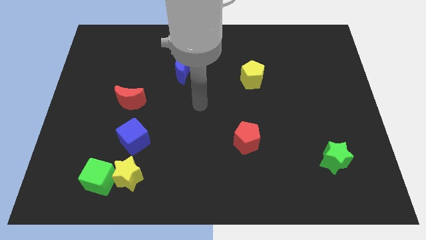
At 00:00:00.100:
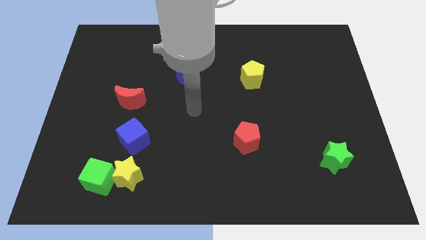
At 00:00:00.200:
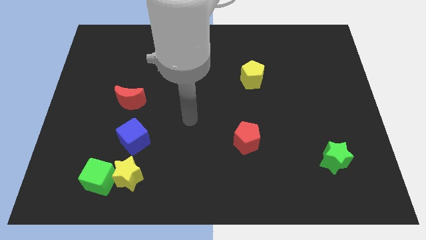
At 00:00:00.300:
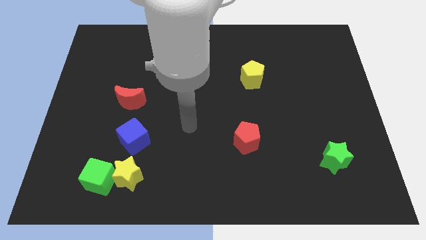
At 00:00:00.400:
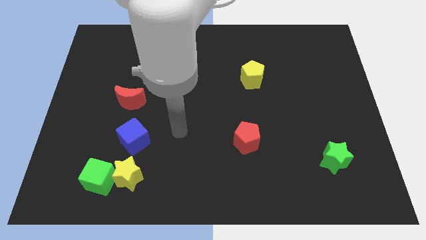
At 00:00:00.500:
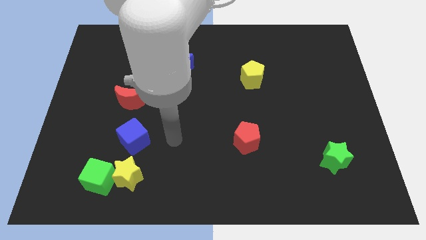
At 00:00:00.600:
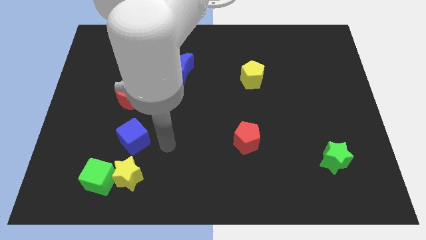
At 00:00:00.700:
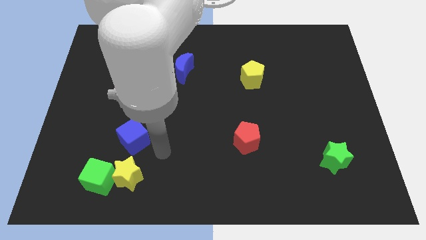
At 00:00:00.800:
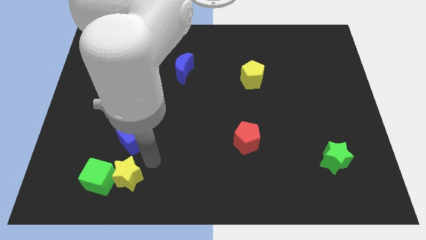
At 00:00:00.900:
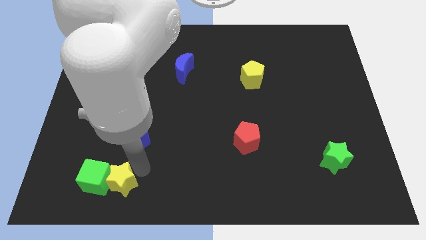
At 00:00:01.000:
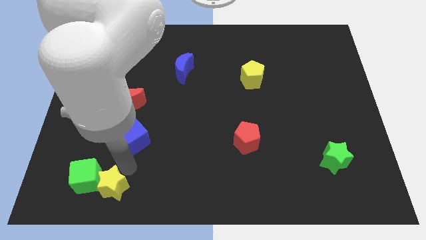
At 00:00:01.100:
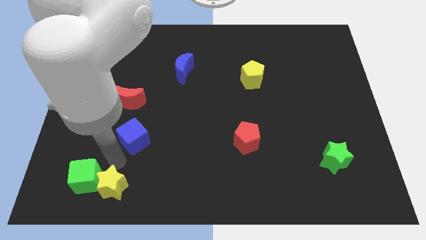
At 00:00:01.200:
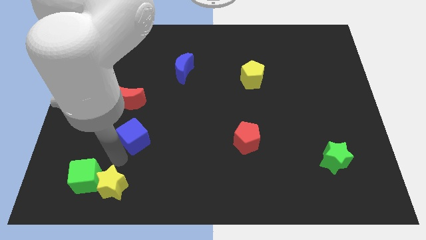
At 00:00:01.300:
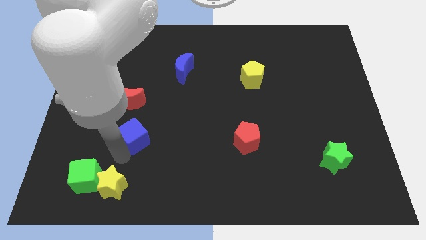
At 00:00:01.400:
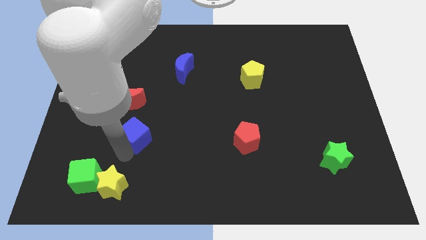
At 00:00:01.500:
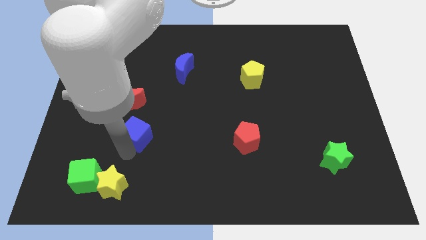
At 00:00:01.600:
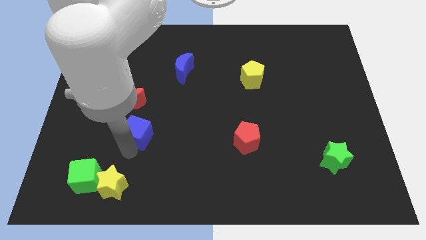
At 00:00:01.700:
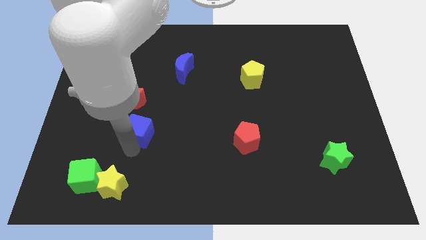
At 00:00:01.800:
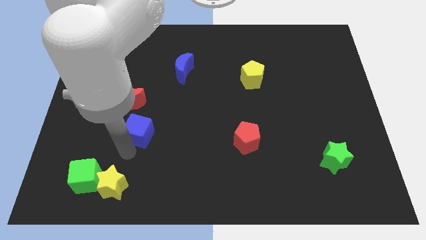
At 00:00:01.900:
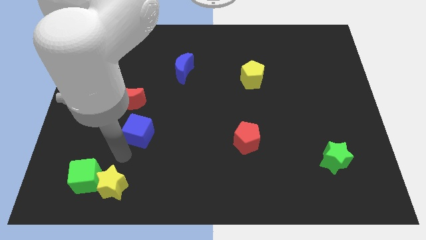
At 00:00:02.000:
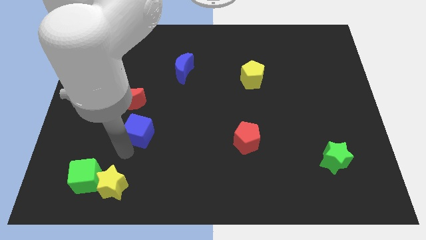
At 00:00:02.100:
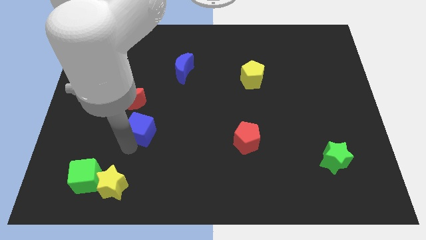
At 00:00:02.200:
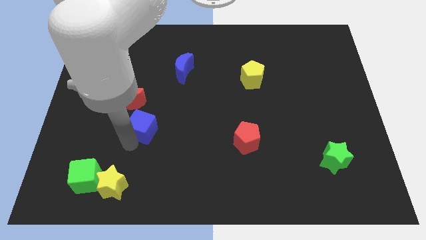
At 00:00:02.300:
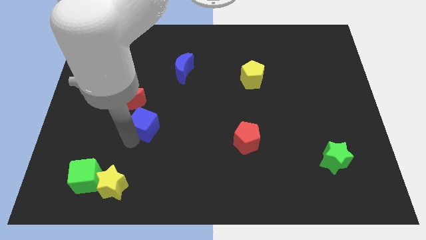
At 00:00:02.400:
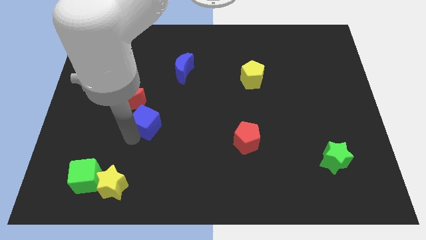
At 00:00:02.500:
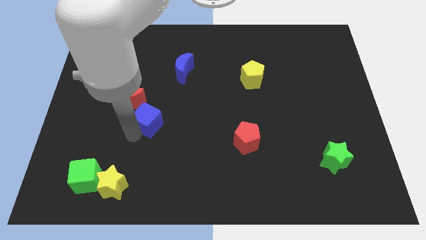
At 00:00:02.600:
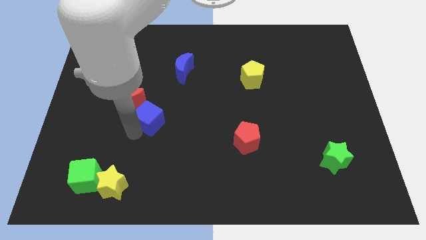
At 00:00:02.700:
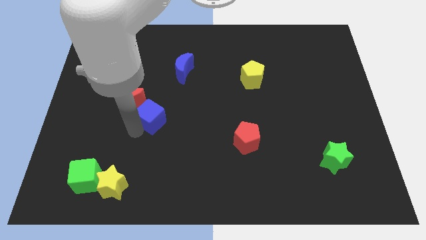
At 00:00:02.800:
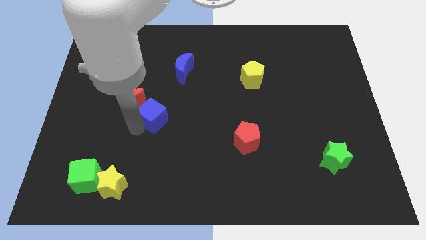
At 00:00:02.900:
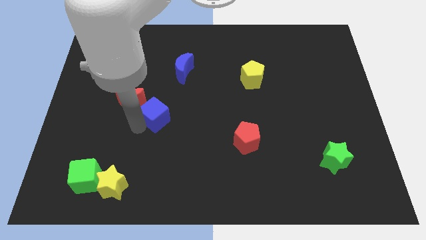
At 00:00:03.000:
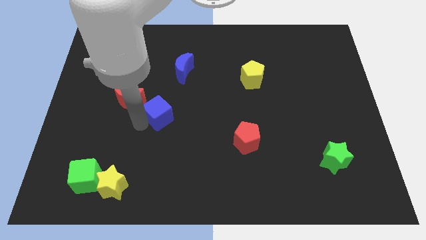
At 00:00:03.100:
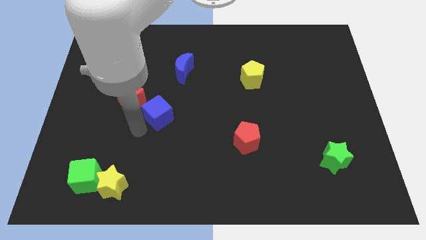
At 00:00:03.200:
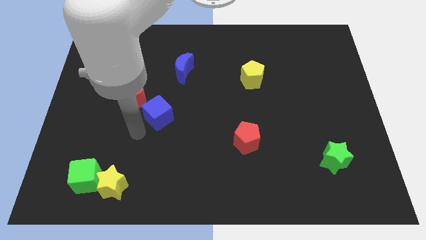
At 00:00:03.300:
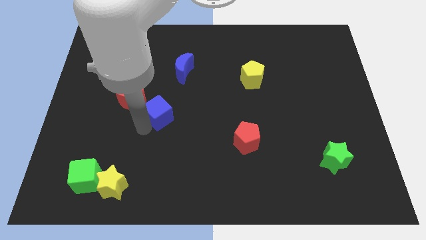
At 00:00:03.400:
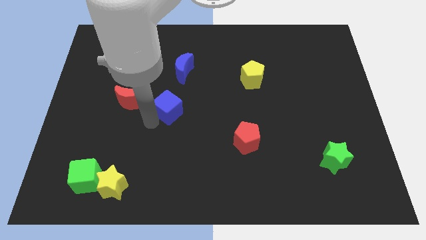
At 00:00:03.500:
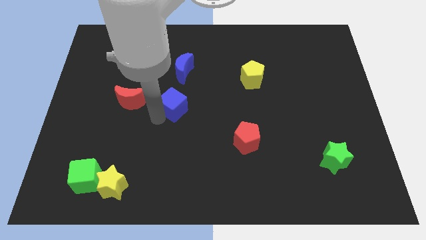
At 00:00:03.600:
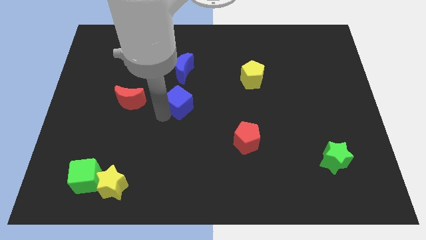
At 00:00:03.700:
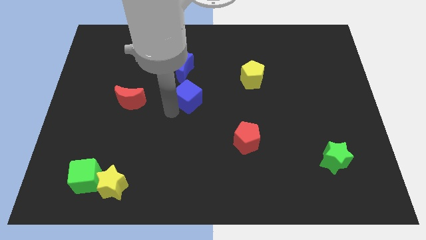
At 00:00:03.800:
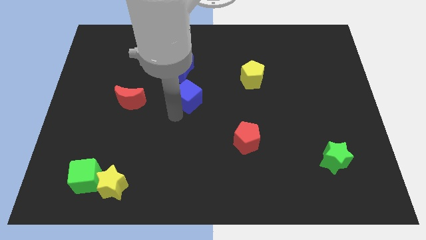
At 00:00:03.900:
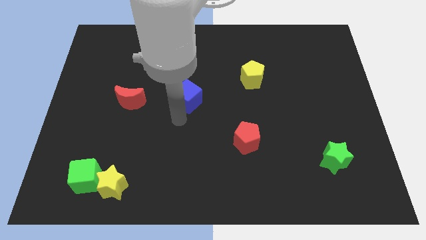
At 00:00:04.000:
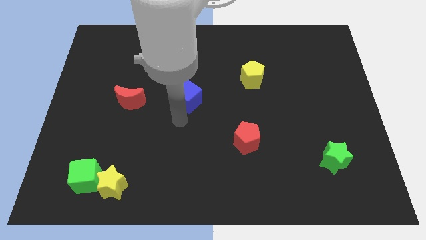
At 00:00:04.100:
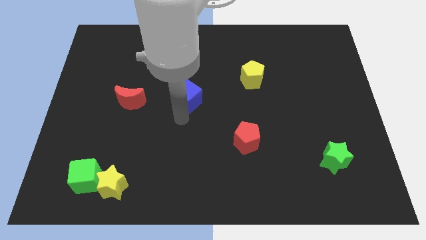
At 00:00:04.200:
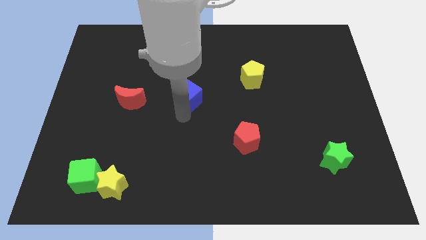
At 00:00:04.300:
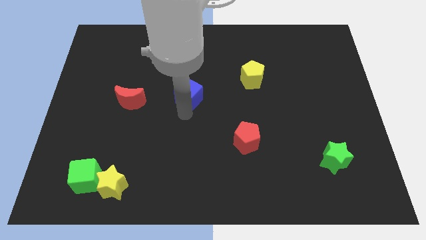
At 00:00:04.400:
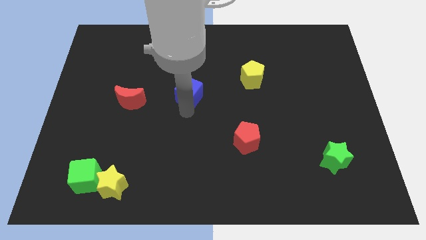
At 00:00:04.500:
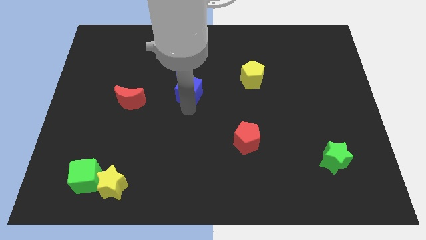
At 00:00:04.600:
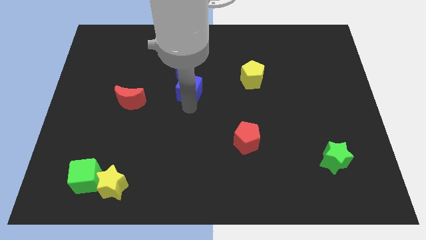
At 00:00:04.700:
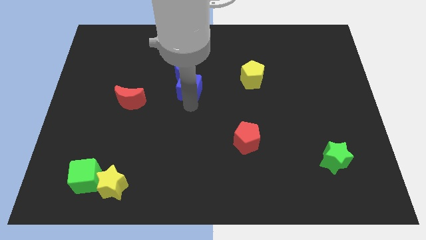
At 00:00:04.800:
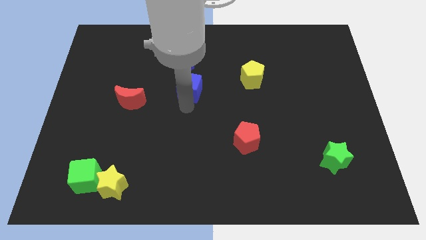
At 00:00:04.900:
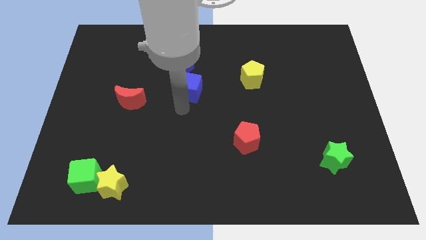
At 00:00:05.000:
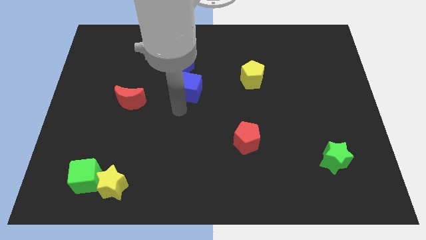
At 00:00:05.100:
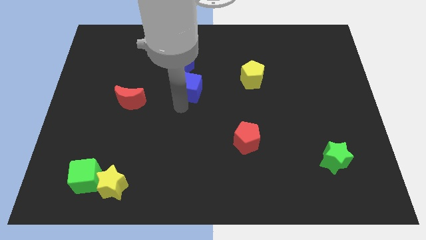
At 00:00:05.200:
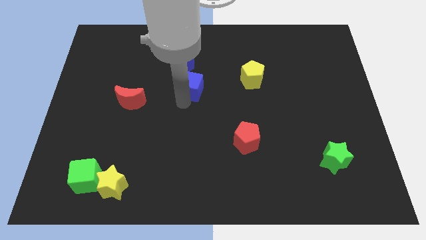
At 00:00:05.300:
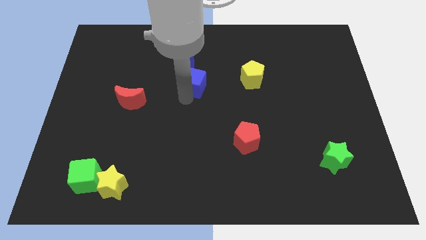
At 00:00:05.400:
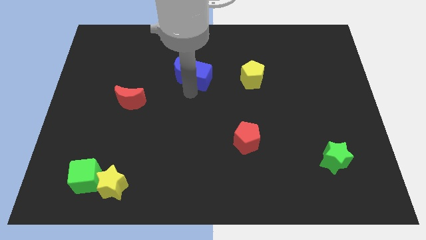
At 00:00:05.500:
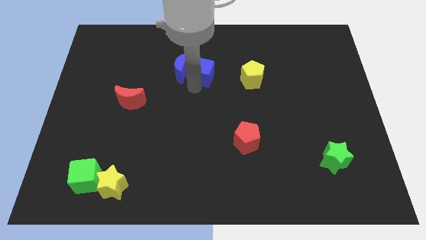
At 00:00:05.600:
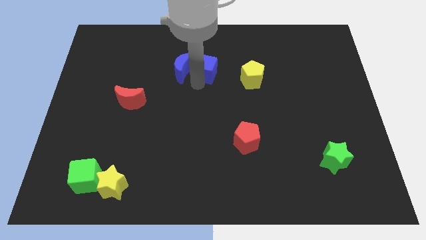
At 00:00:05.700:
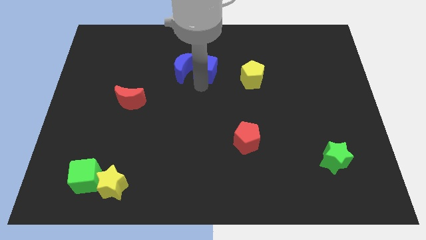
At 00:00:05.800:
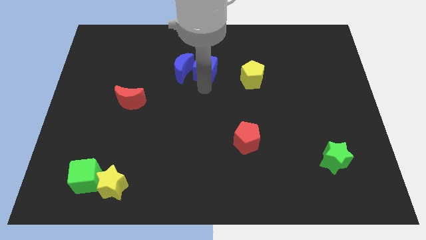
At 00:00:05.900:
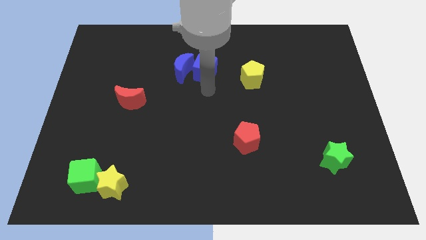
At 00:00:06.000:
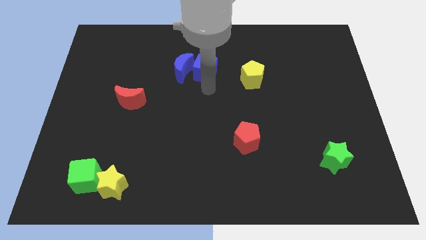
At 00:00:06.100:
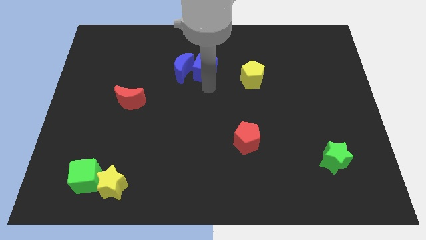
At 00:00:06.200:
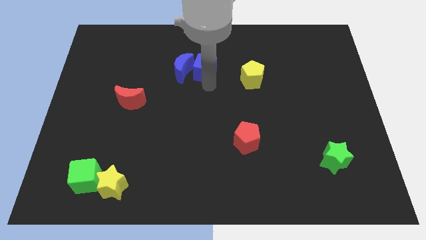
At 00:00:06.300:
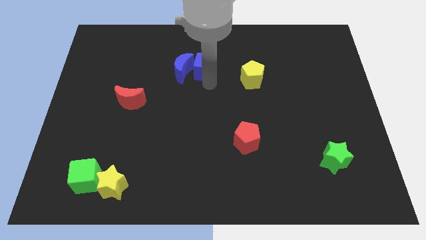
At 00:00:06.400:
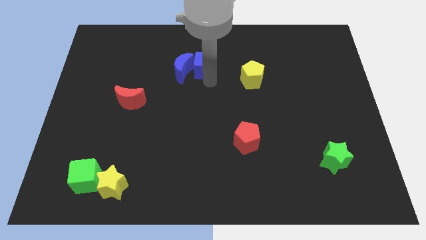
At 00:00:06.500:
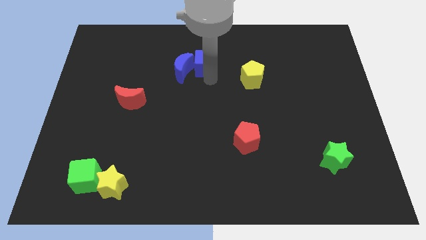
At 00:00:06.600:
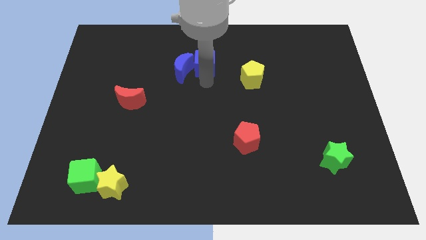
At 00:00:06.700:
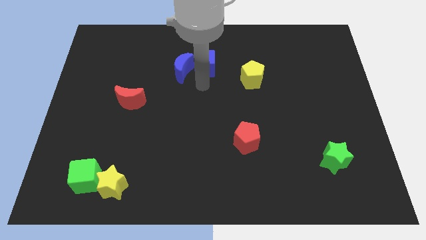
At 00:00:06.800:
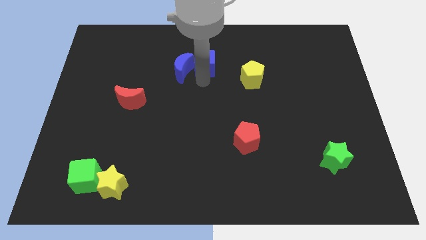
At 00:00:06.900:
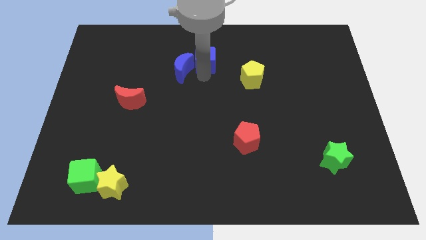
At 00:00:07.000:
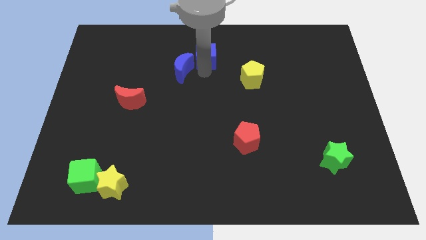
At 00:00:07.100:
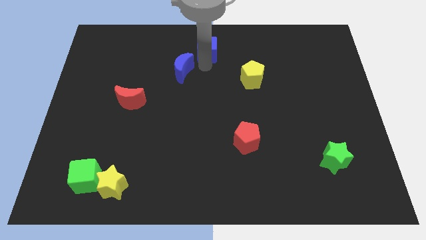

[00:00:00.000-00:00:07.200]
slide the blue cube to the top side
